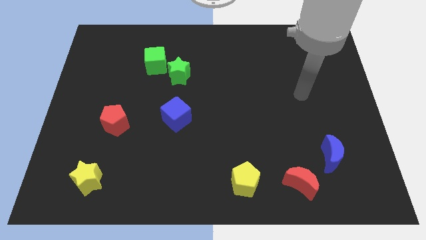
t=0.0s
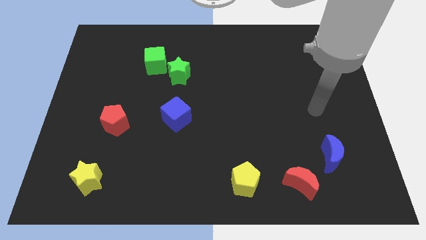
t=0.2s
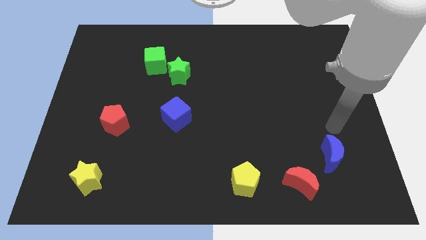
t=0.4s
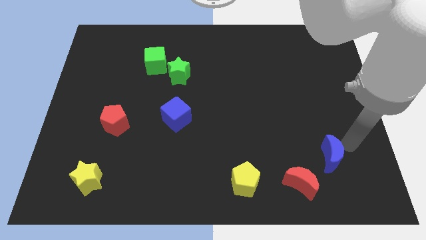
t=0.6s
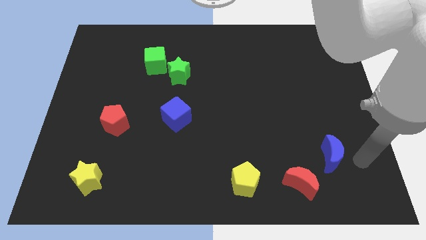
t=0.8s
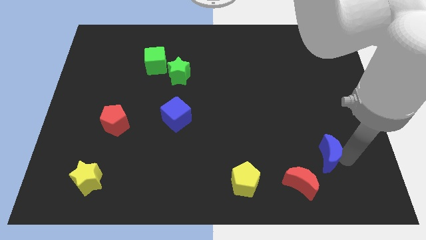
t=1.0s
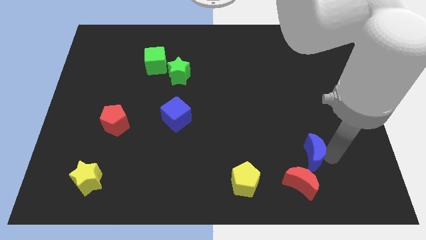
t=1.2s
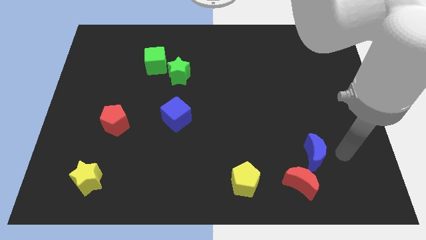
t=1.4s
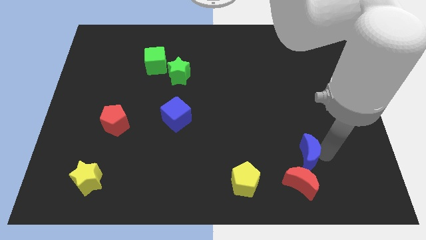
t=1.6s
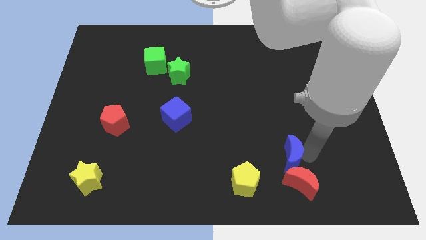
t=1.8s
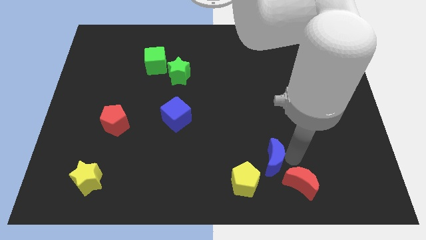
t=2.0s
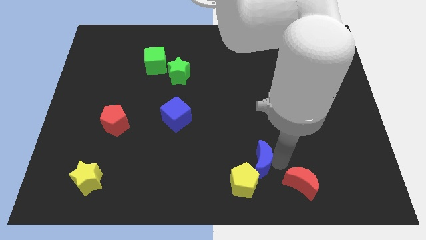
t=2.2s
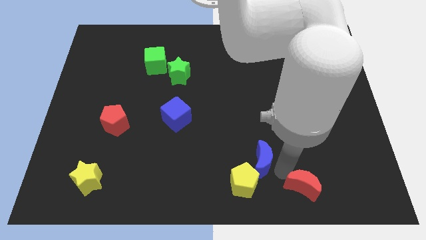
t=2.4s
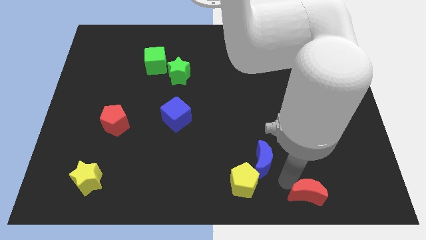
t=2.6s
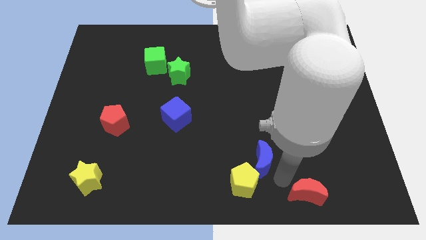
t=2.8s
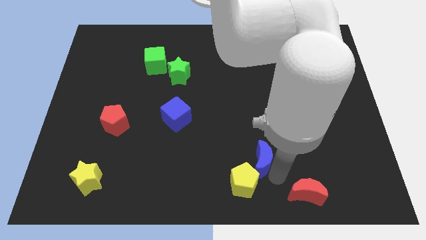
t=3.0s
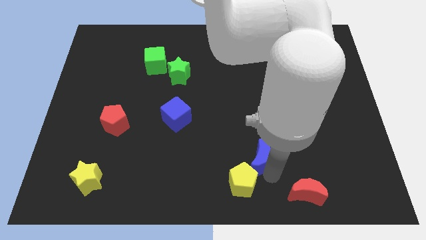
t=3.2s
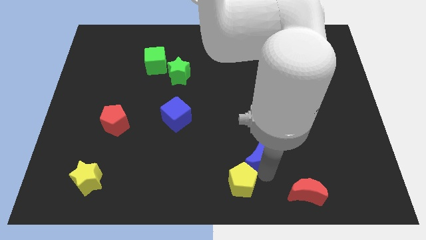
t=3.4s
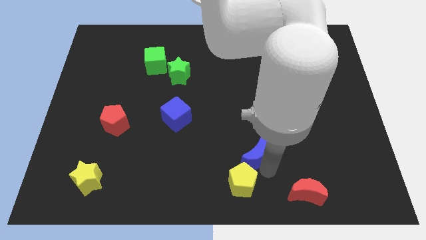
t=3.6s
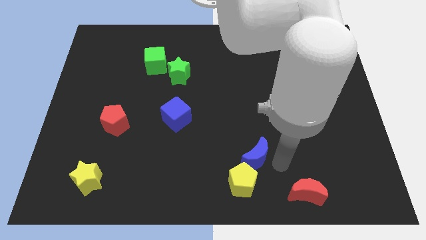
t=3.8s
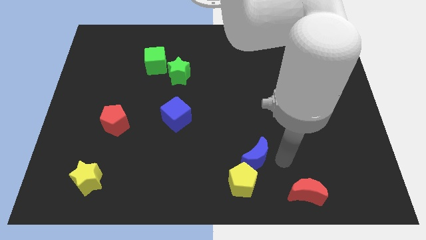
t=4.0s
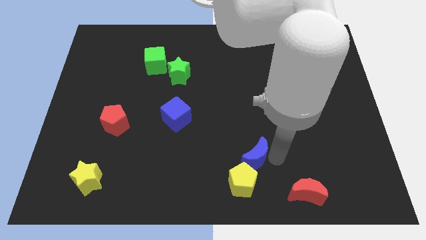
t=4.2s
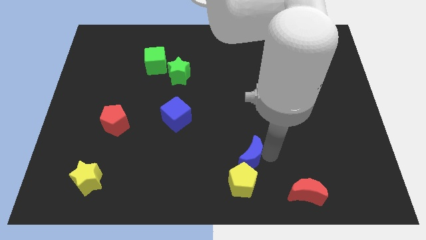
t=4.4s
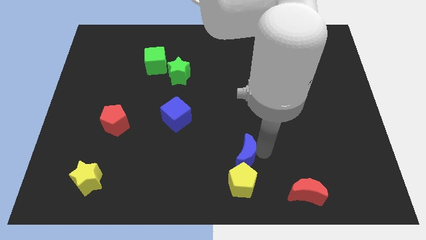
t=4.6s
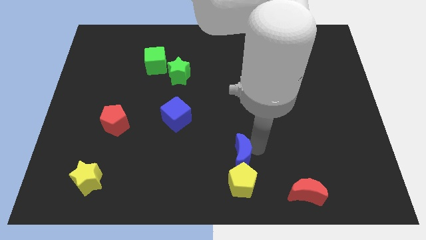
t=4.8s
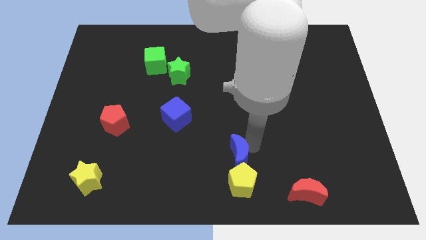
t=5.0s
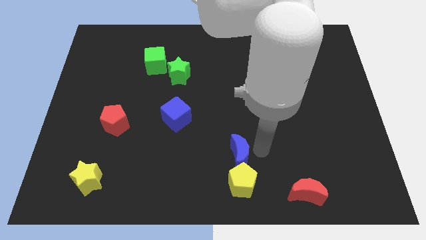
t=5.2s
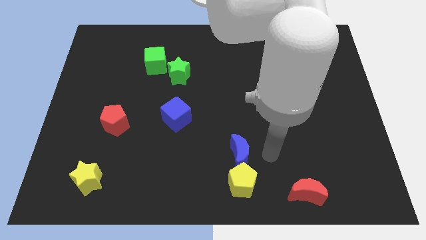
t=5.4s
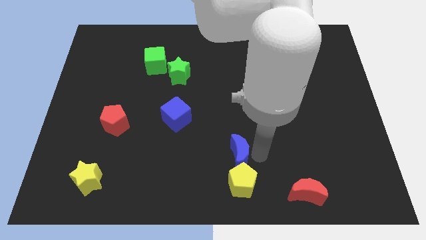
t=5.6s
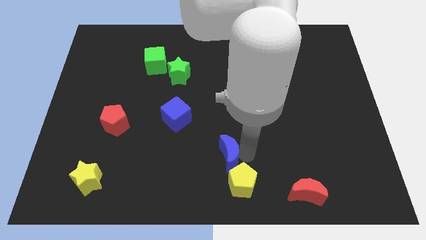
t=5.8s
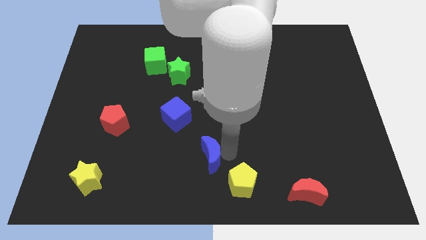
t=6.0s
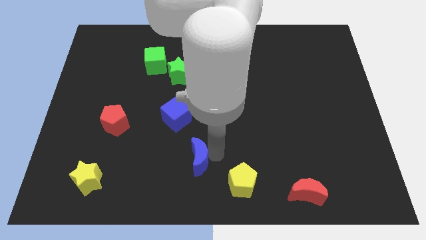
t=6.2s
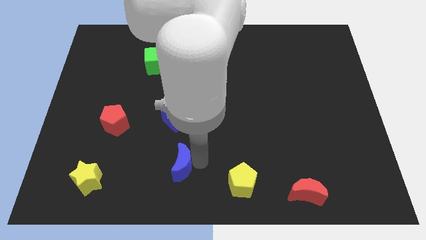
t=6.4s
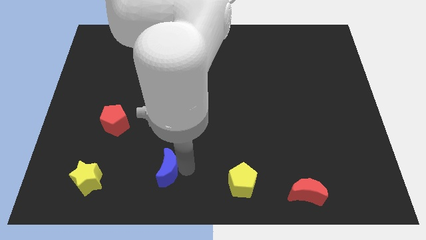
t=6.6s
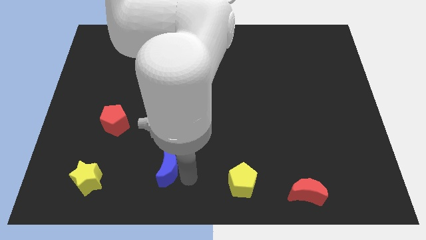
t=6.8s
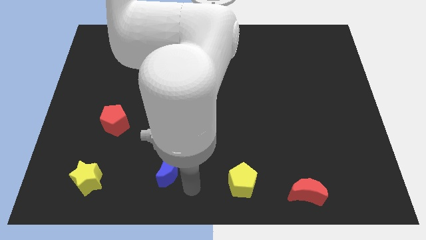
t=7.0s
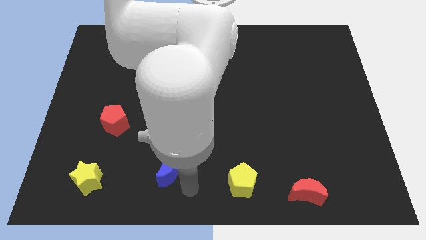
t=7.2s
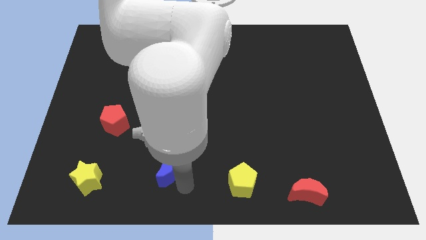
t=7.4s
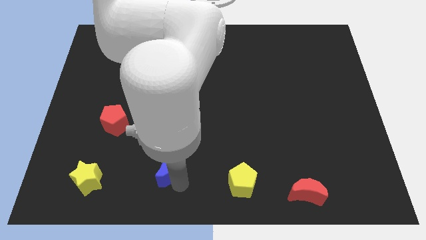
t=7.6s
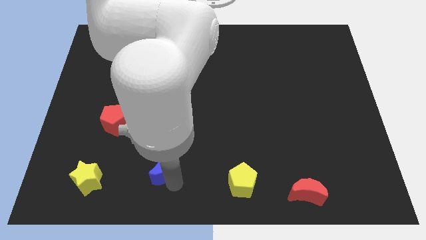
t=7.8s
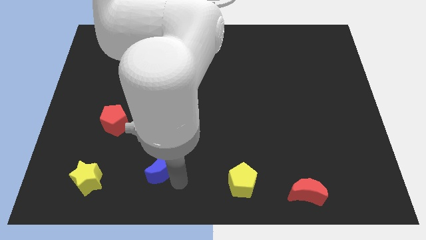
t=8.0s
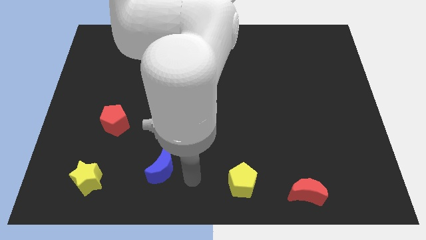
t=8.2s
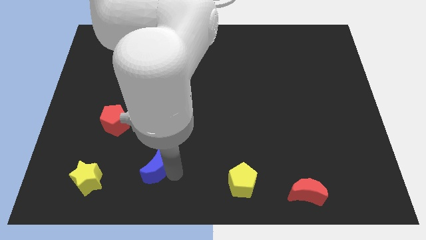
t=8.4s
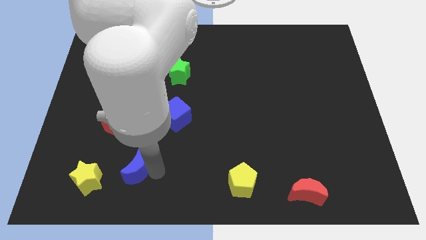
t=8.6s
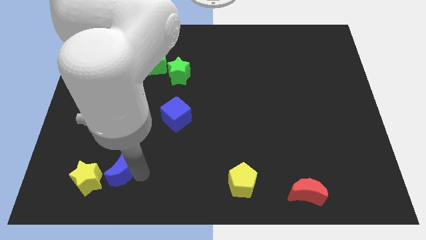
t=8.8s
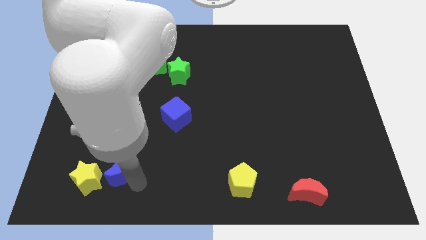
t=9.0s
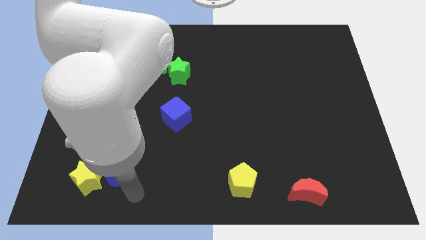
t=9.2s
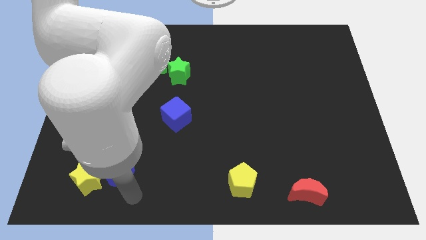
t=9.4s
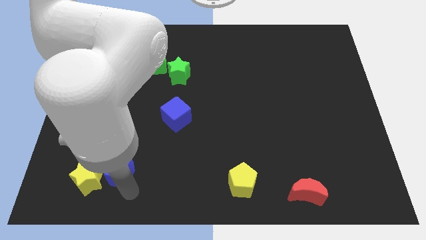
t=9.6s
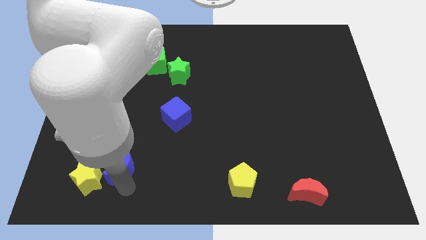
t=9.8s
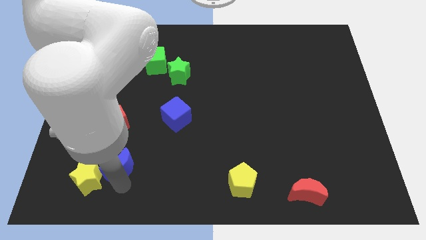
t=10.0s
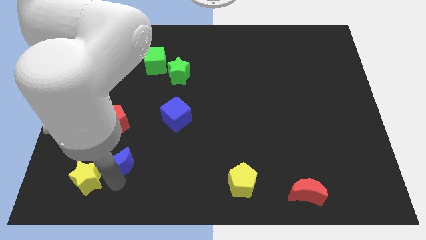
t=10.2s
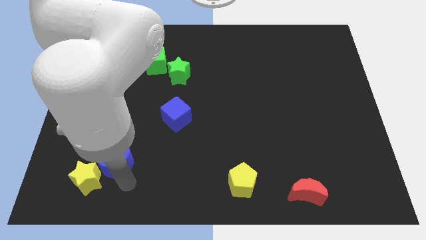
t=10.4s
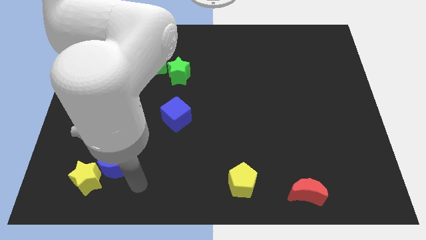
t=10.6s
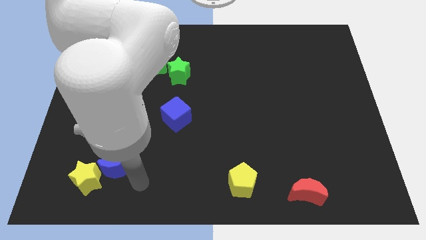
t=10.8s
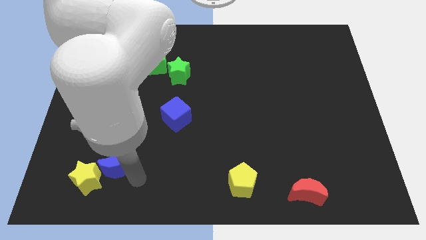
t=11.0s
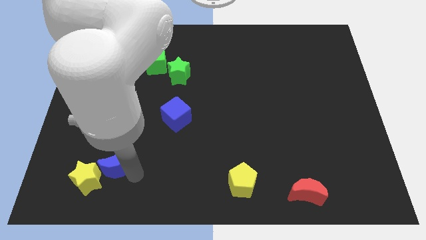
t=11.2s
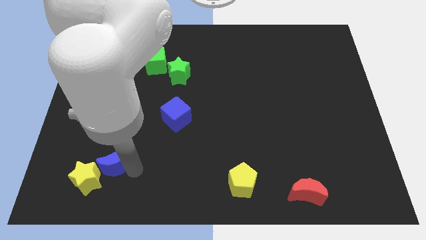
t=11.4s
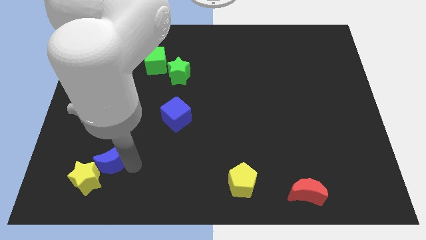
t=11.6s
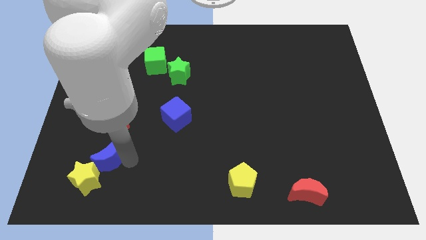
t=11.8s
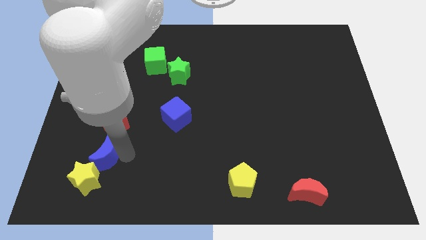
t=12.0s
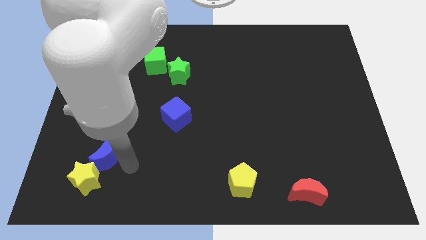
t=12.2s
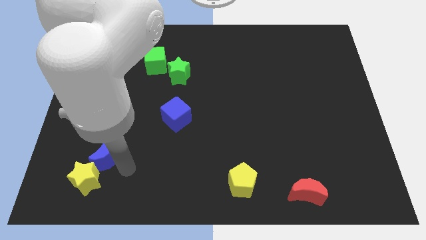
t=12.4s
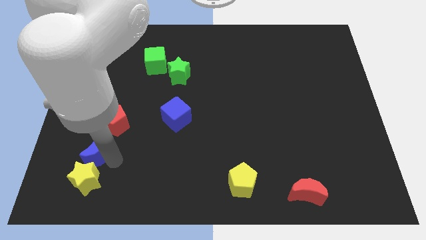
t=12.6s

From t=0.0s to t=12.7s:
push the blue moon to the bottom left side of the red pentagon

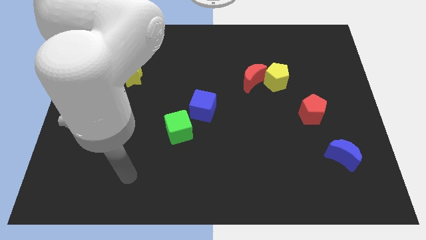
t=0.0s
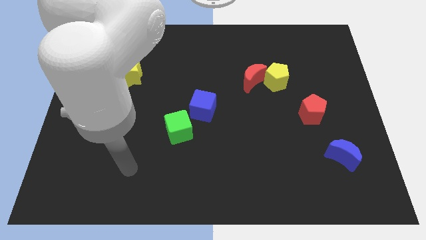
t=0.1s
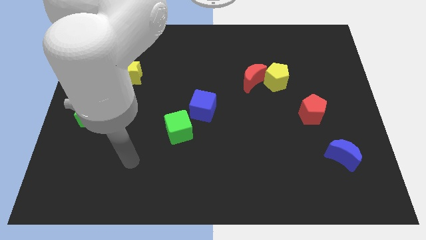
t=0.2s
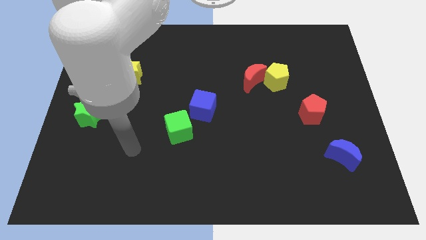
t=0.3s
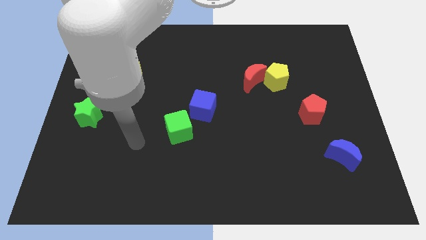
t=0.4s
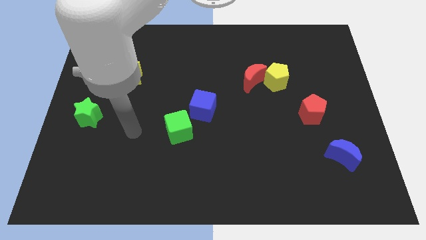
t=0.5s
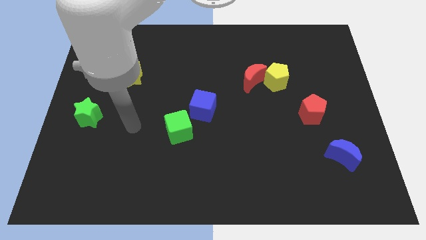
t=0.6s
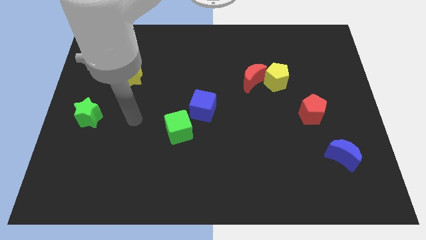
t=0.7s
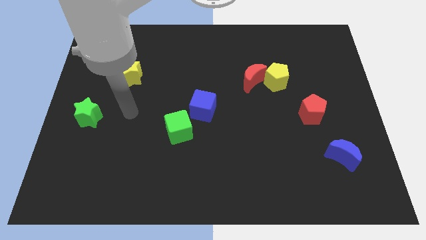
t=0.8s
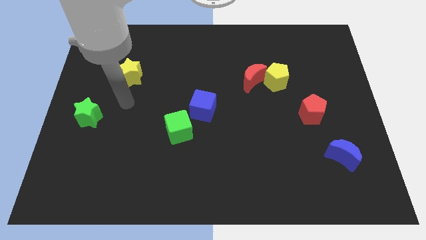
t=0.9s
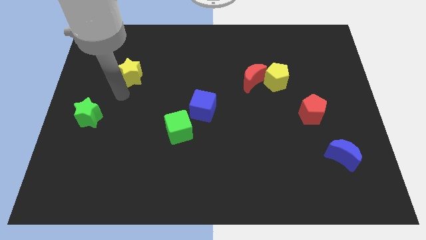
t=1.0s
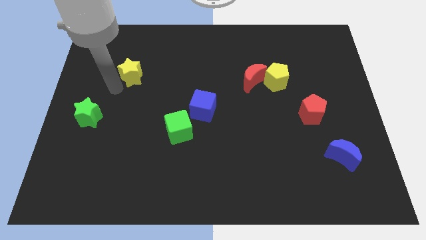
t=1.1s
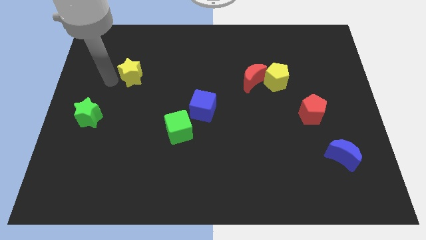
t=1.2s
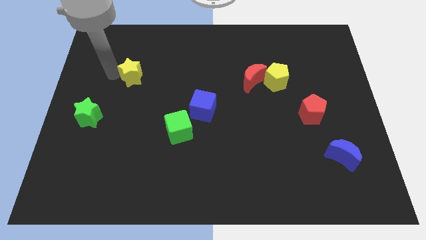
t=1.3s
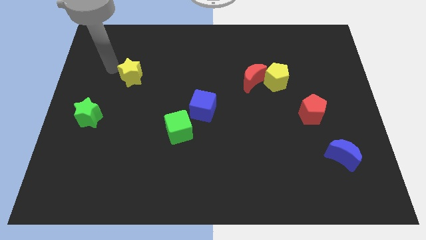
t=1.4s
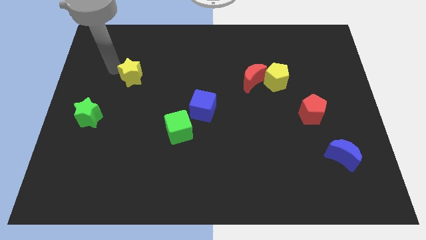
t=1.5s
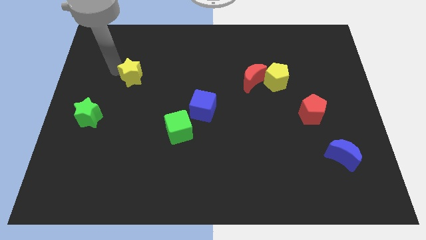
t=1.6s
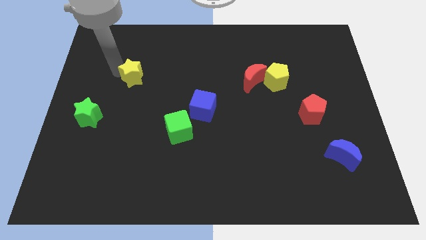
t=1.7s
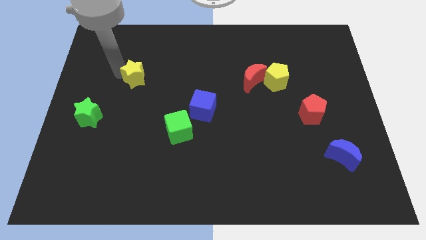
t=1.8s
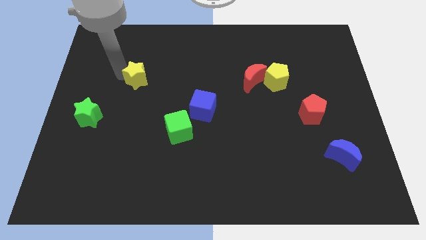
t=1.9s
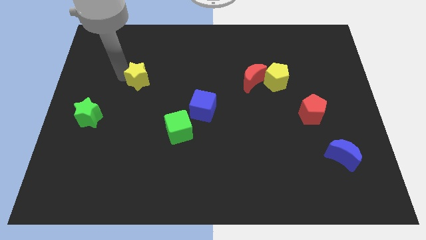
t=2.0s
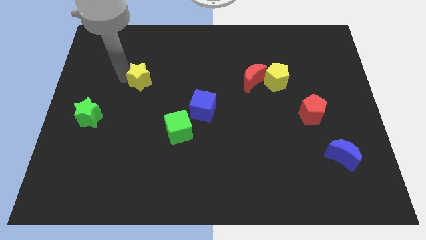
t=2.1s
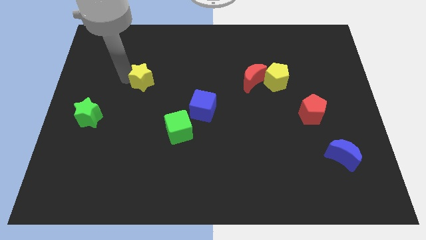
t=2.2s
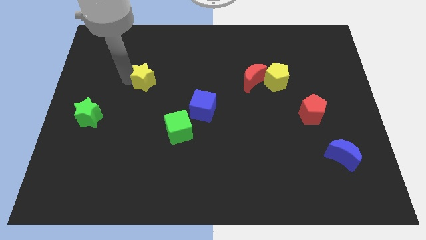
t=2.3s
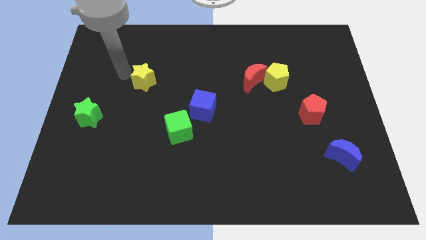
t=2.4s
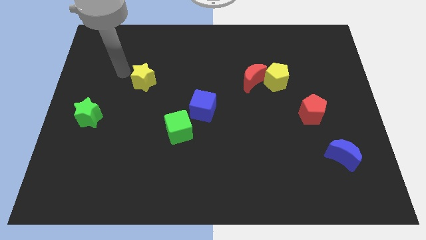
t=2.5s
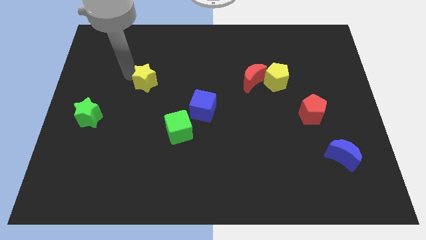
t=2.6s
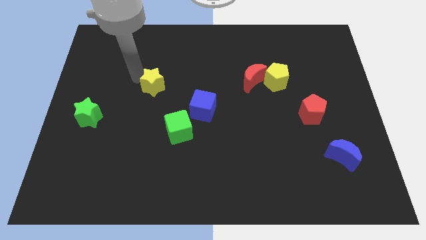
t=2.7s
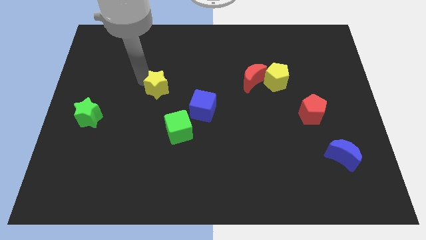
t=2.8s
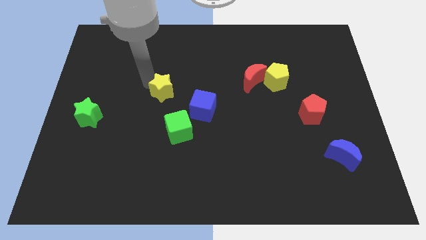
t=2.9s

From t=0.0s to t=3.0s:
put the yellow star to the top left of the blue cube
